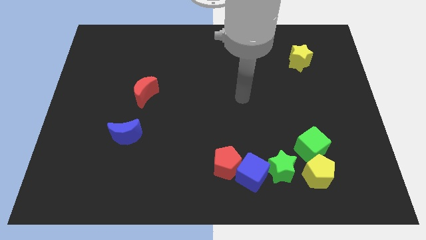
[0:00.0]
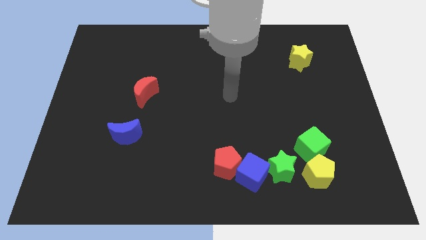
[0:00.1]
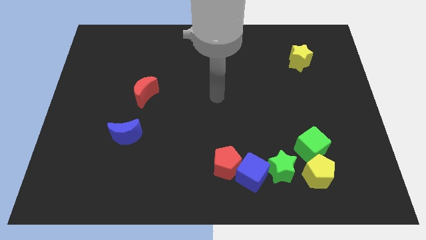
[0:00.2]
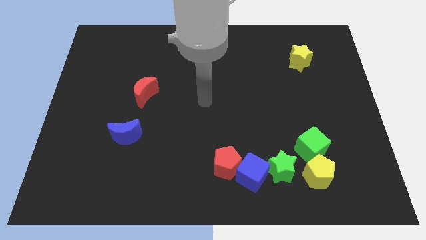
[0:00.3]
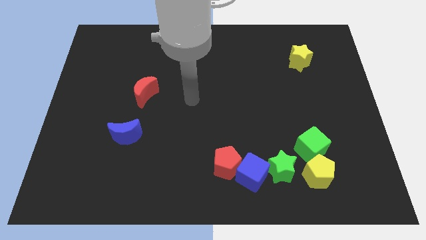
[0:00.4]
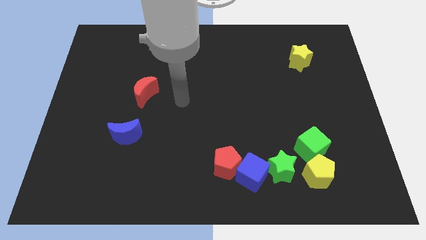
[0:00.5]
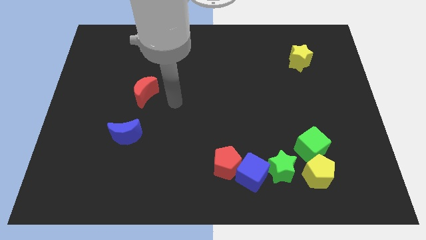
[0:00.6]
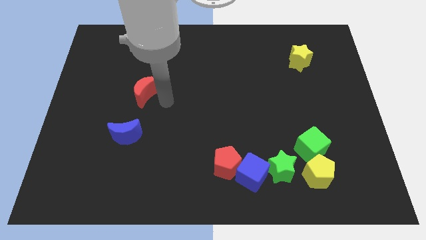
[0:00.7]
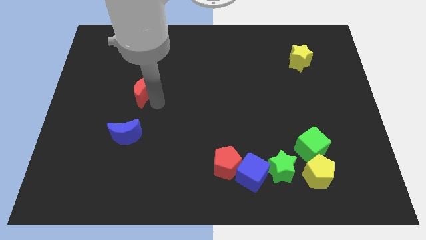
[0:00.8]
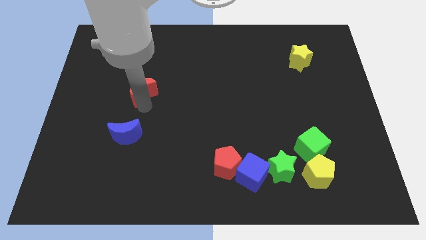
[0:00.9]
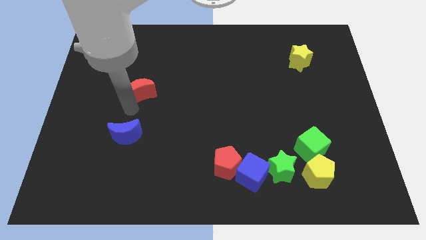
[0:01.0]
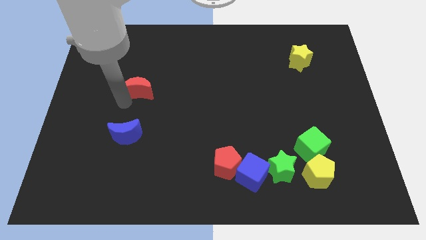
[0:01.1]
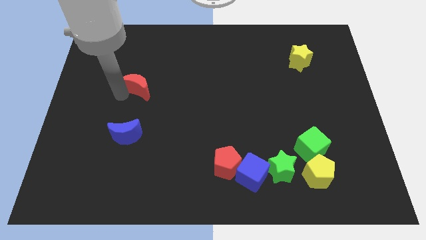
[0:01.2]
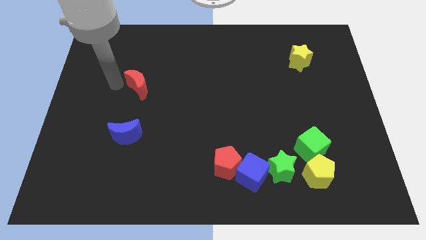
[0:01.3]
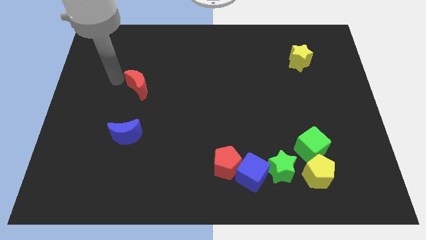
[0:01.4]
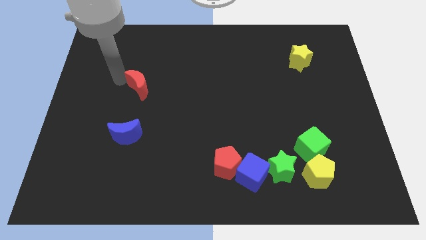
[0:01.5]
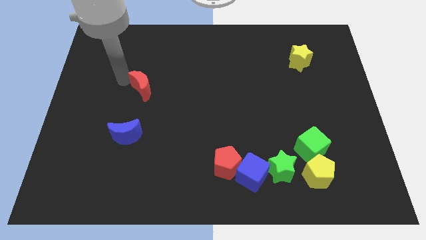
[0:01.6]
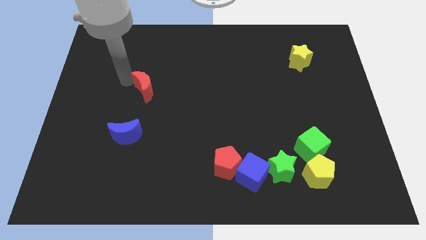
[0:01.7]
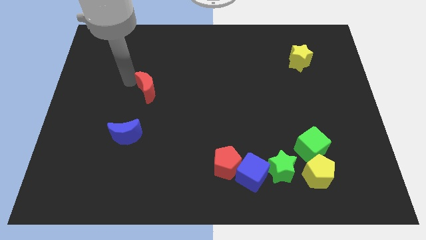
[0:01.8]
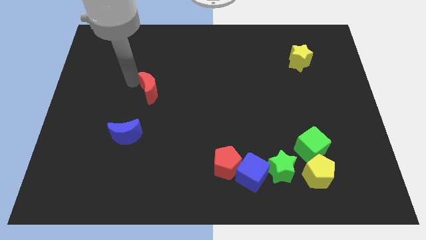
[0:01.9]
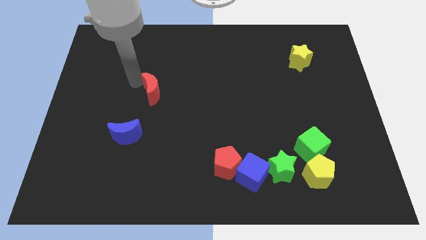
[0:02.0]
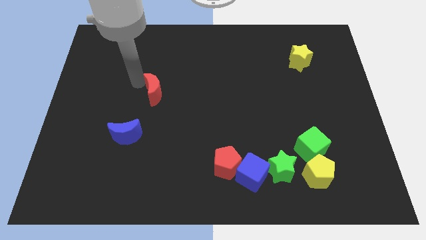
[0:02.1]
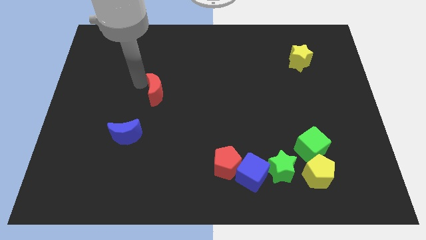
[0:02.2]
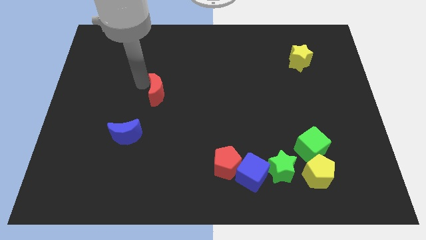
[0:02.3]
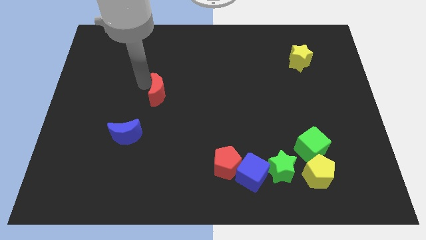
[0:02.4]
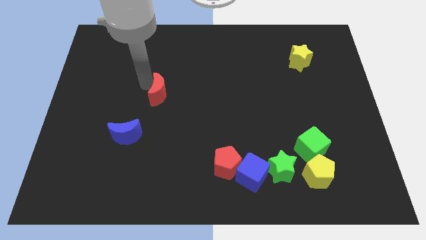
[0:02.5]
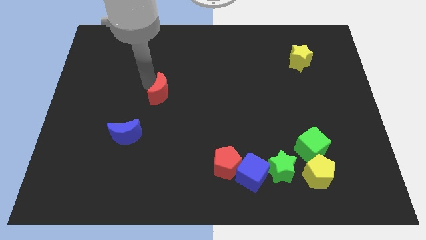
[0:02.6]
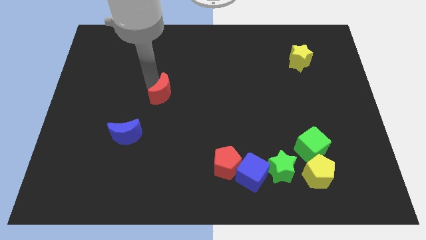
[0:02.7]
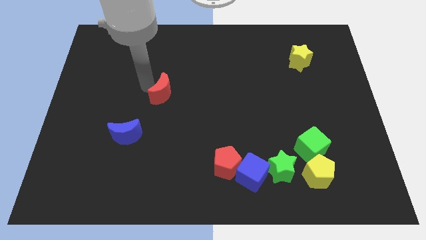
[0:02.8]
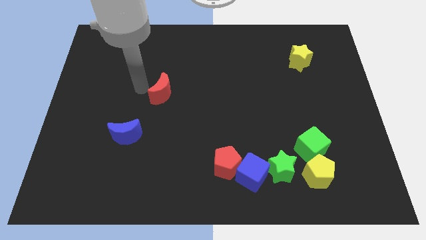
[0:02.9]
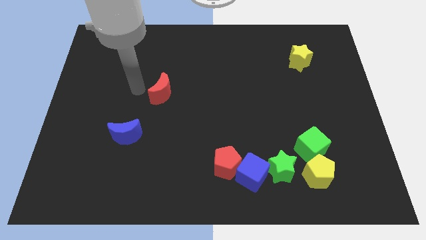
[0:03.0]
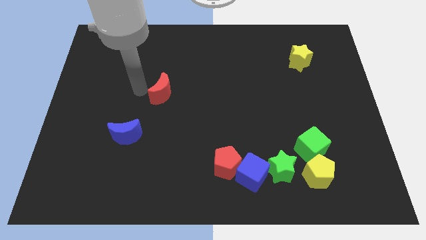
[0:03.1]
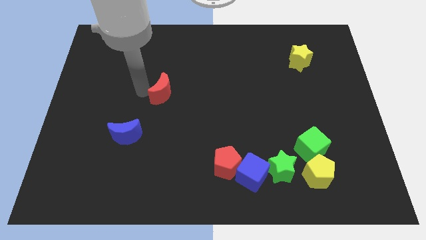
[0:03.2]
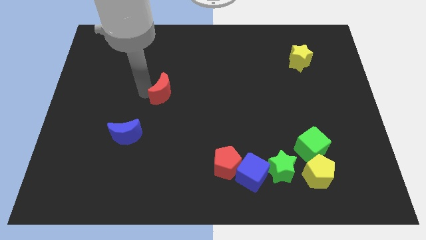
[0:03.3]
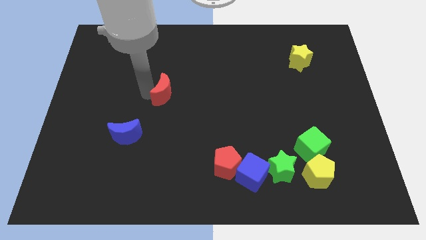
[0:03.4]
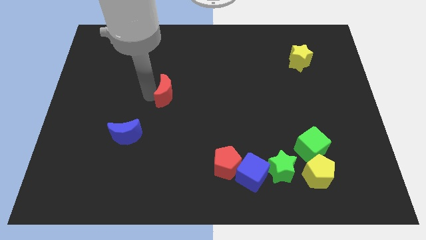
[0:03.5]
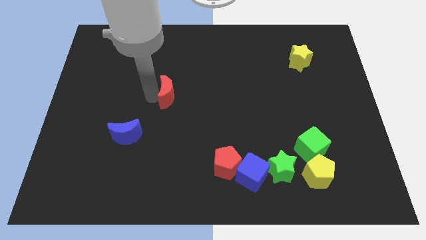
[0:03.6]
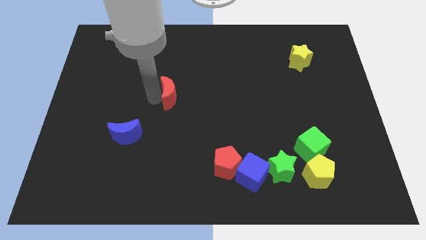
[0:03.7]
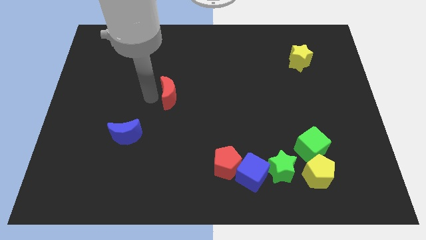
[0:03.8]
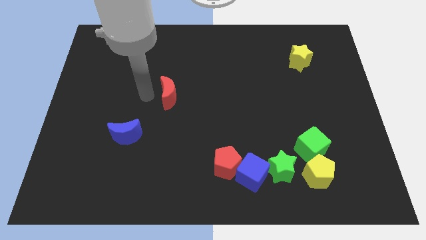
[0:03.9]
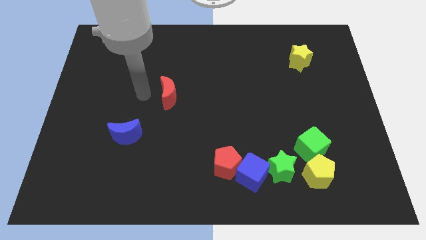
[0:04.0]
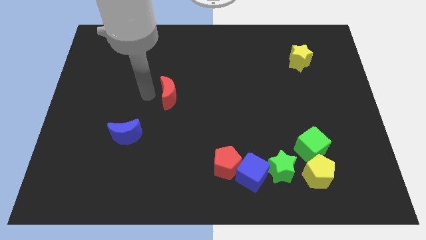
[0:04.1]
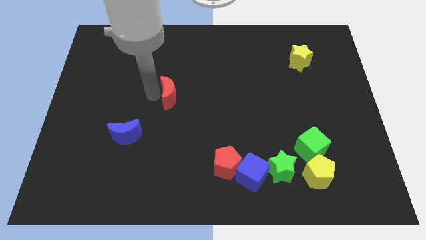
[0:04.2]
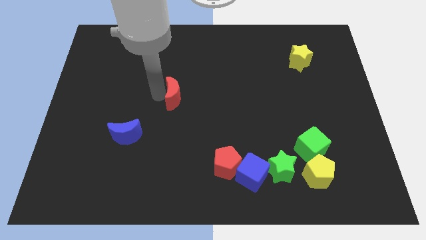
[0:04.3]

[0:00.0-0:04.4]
push the red moon slightly to the right

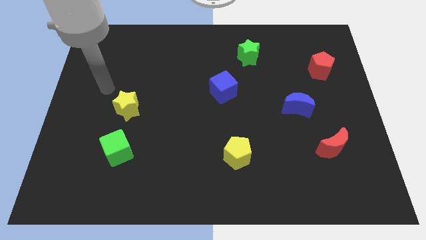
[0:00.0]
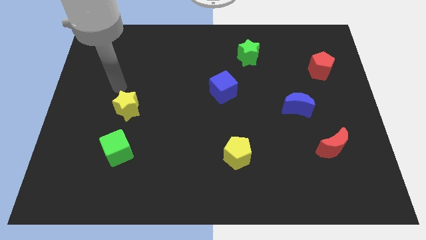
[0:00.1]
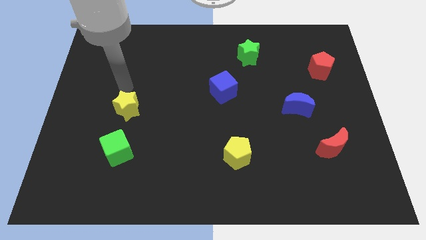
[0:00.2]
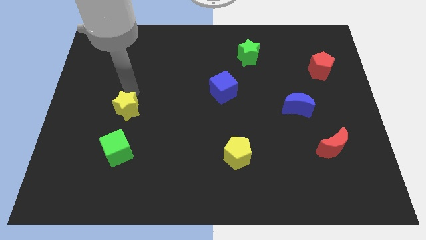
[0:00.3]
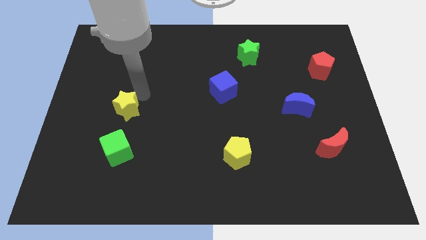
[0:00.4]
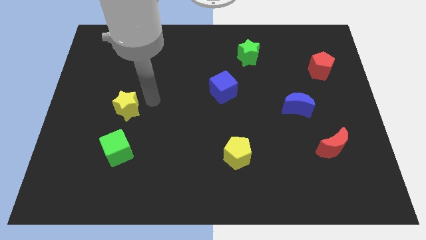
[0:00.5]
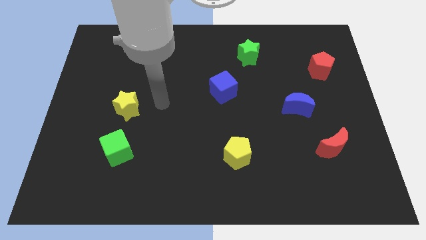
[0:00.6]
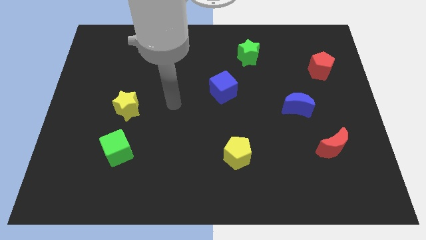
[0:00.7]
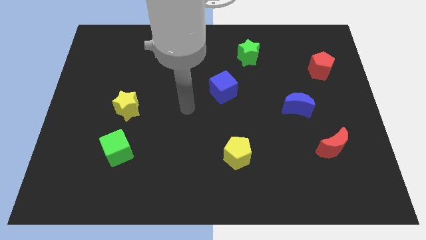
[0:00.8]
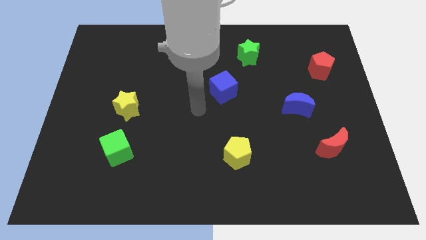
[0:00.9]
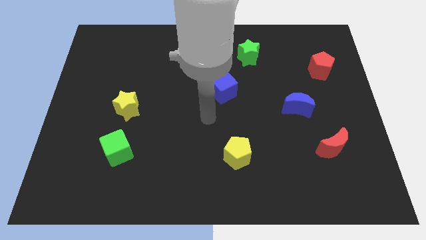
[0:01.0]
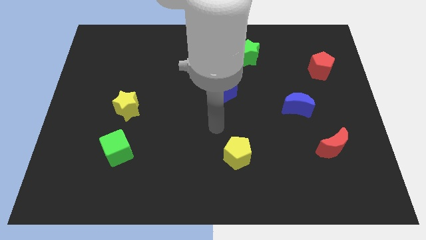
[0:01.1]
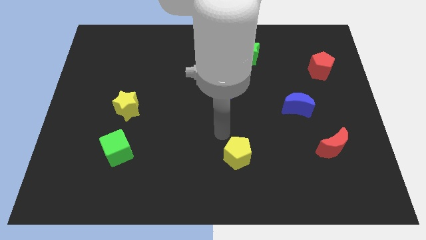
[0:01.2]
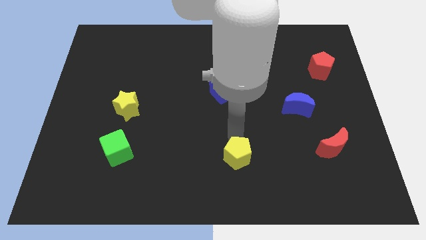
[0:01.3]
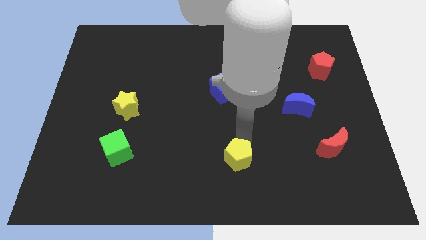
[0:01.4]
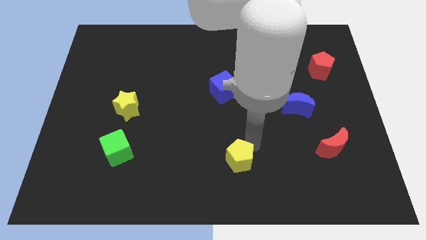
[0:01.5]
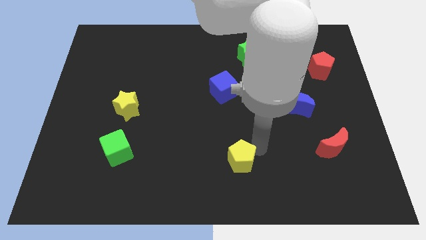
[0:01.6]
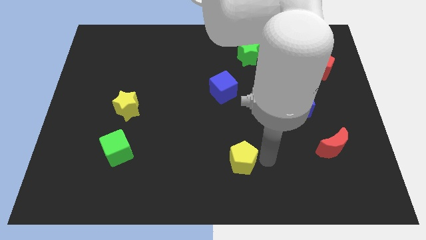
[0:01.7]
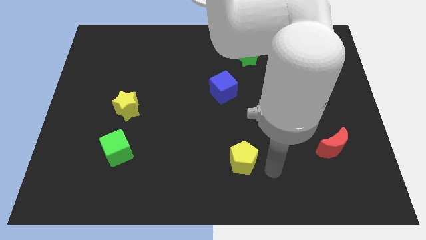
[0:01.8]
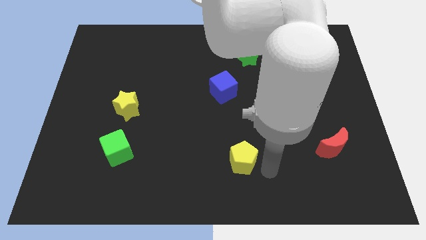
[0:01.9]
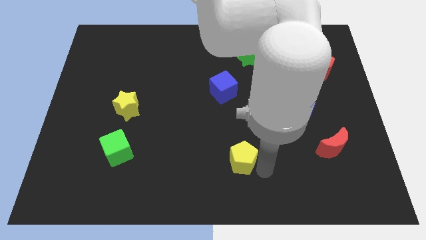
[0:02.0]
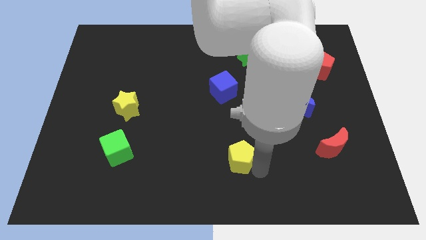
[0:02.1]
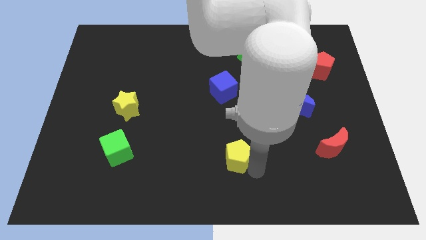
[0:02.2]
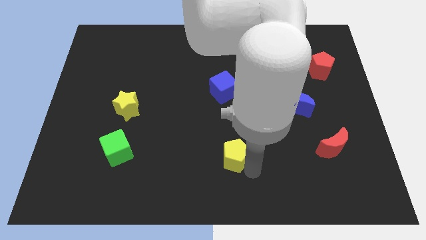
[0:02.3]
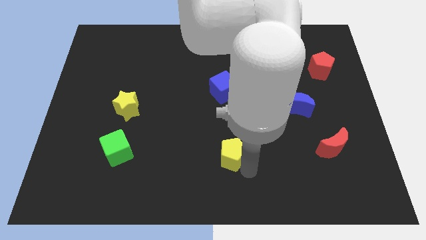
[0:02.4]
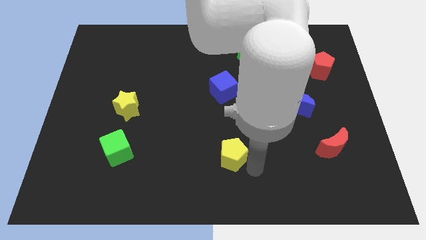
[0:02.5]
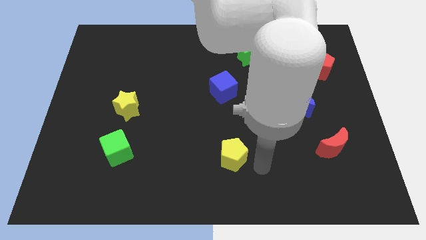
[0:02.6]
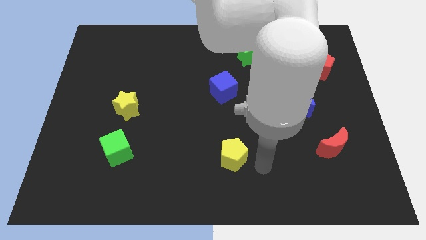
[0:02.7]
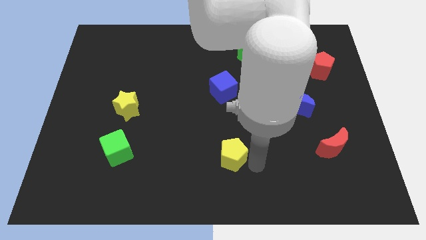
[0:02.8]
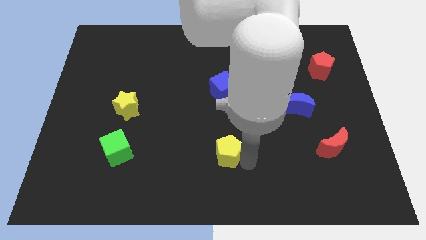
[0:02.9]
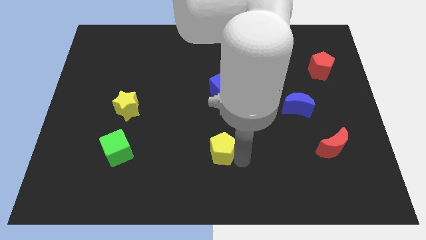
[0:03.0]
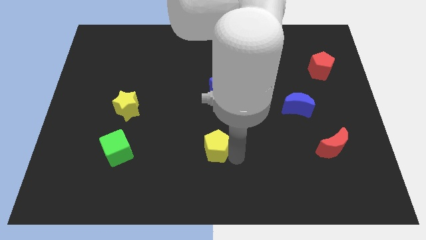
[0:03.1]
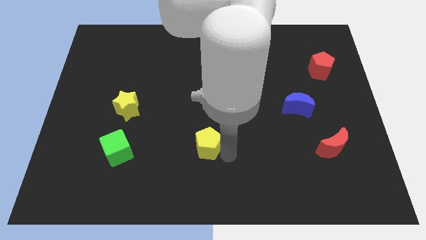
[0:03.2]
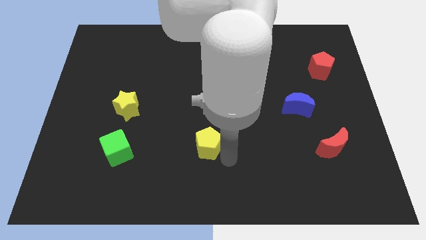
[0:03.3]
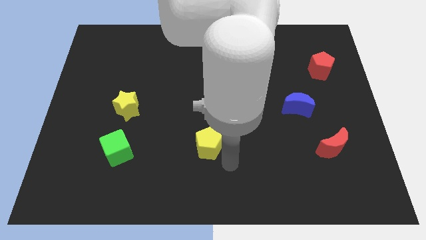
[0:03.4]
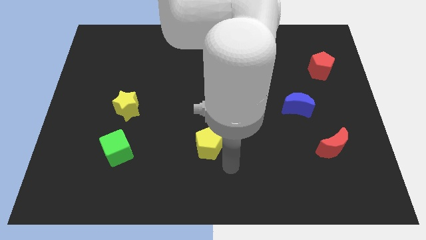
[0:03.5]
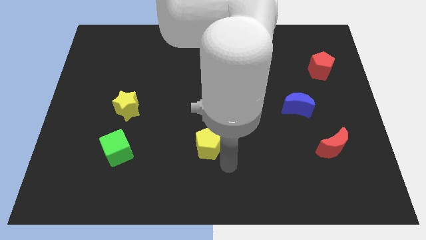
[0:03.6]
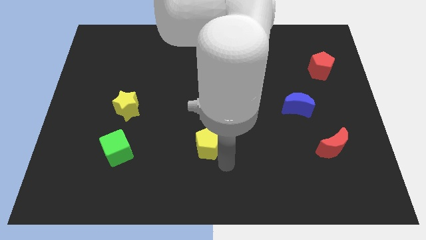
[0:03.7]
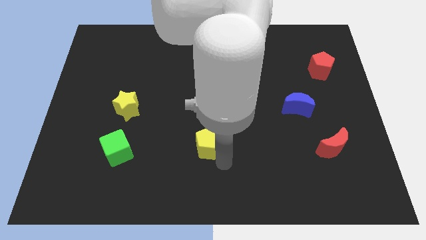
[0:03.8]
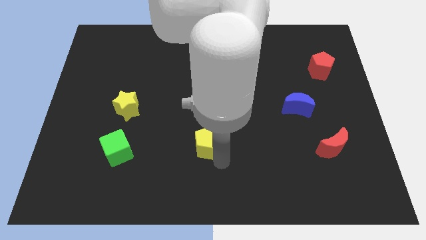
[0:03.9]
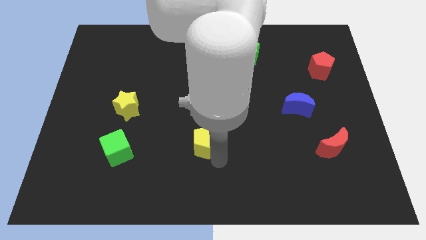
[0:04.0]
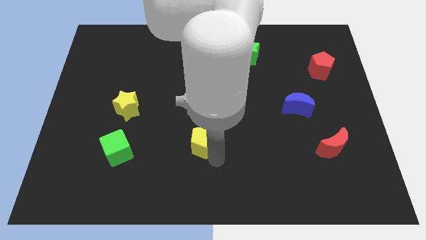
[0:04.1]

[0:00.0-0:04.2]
slightly push the yellow pentagon upwards and to the left
